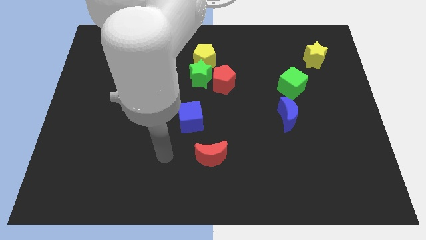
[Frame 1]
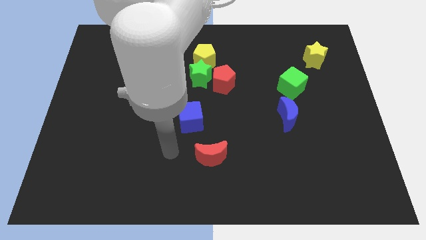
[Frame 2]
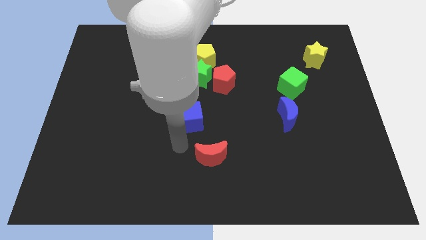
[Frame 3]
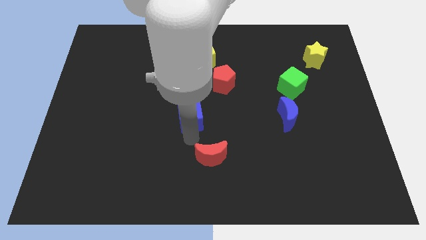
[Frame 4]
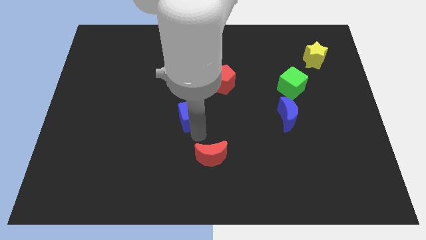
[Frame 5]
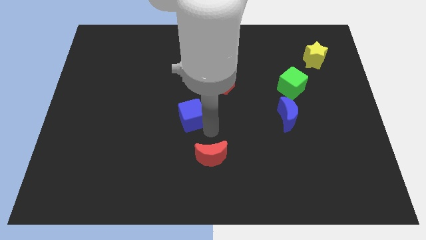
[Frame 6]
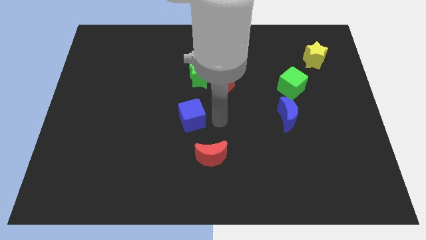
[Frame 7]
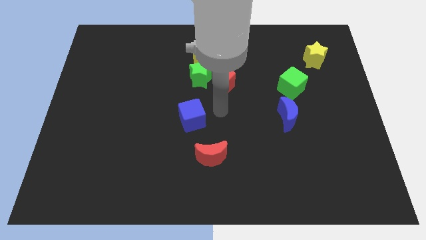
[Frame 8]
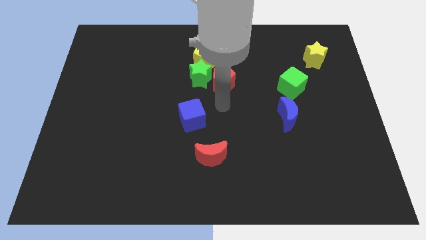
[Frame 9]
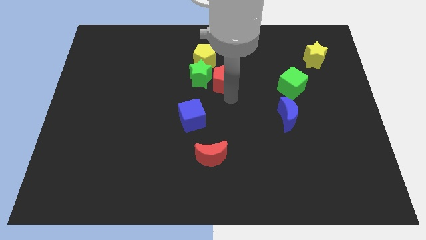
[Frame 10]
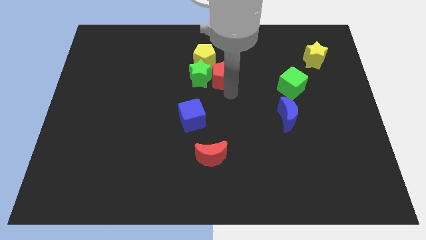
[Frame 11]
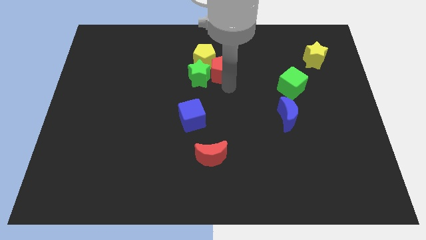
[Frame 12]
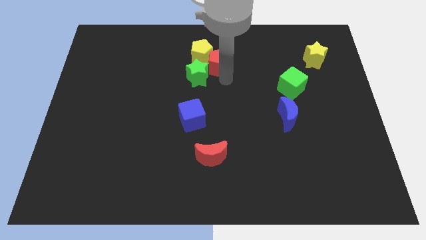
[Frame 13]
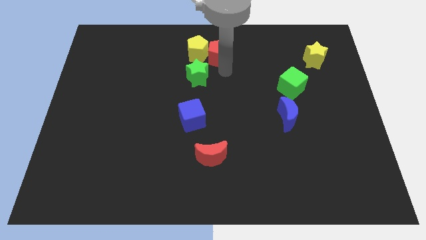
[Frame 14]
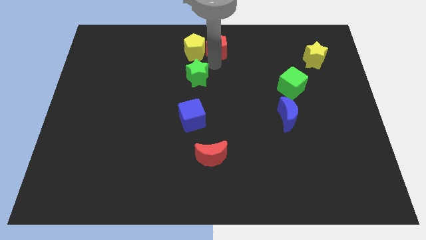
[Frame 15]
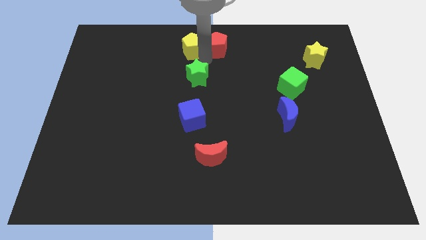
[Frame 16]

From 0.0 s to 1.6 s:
move the green star away from the red pentagon and yellow pentagon

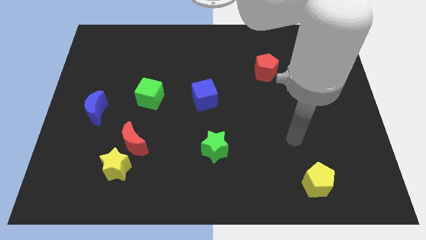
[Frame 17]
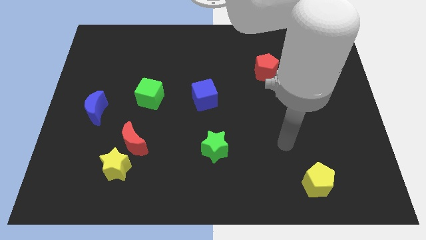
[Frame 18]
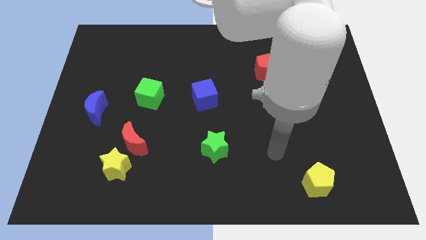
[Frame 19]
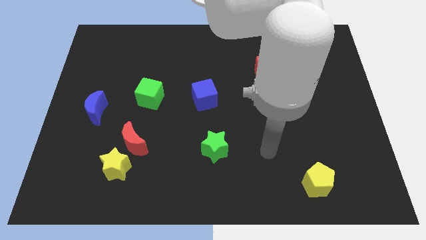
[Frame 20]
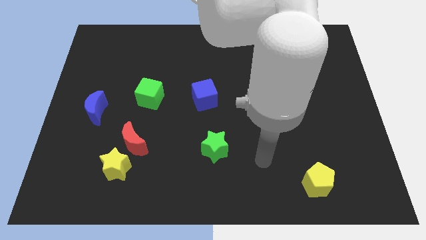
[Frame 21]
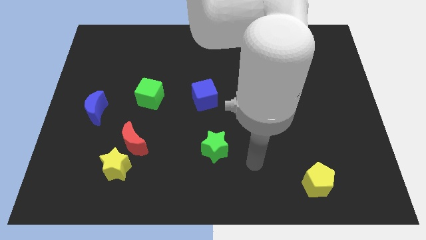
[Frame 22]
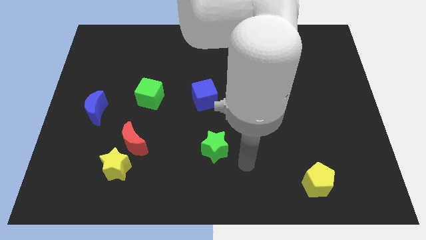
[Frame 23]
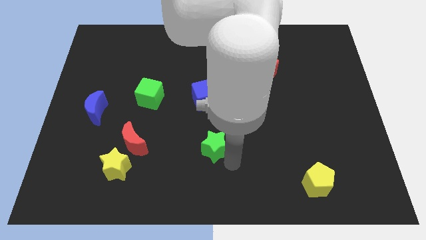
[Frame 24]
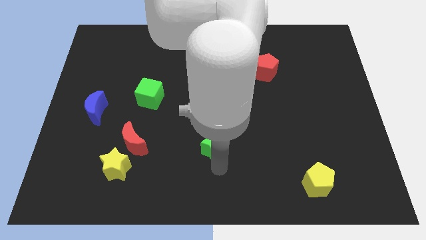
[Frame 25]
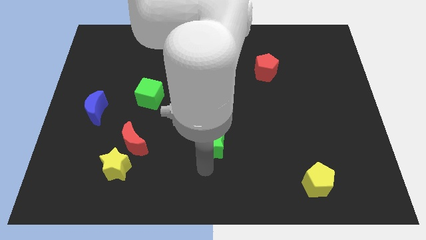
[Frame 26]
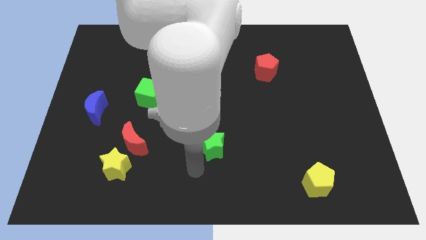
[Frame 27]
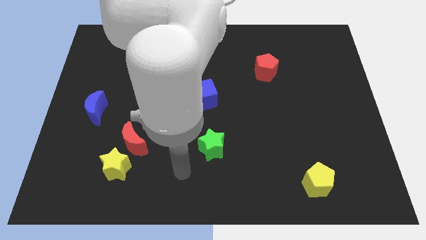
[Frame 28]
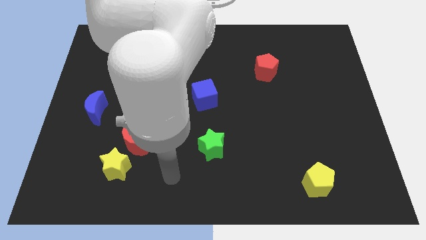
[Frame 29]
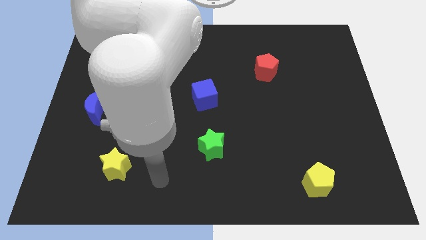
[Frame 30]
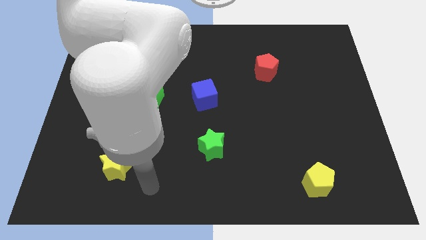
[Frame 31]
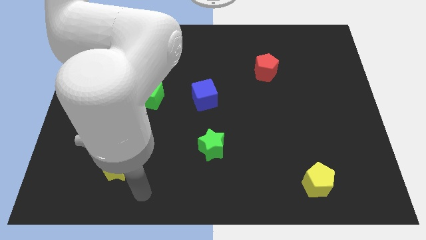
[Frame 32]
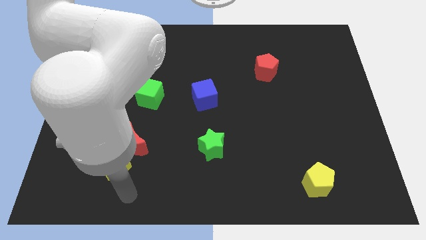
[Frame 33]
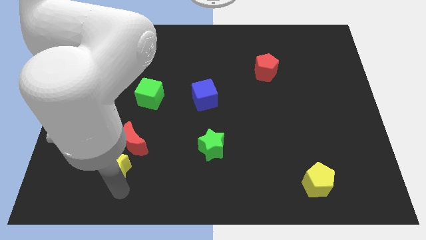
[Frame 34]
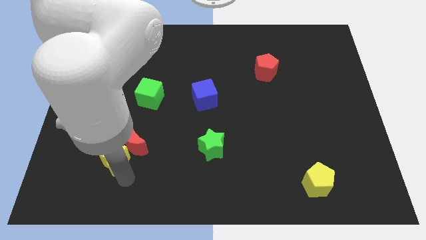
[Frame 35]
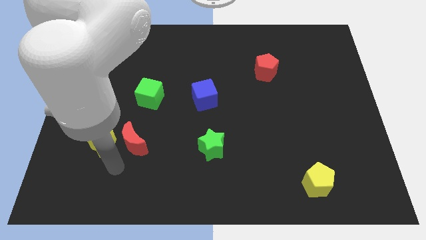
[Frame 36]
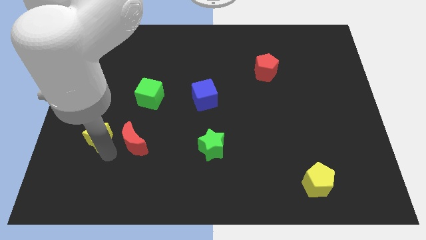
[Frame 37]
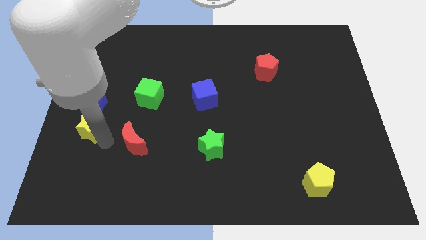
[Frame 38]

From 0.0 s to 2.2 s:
move the red moon away from the yellow star

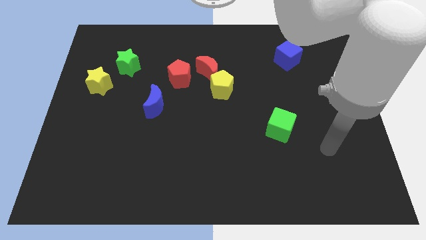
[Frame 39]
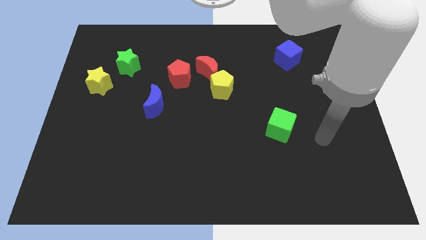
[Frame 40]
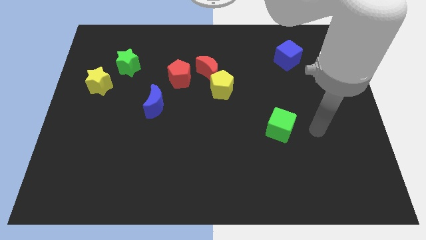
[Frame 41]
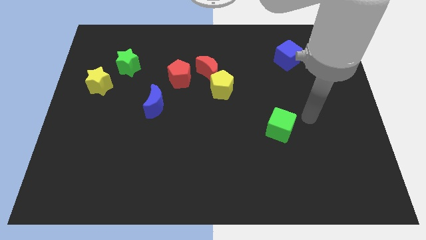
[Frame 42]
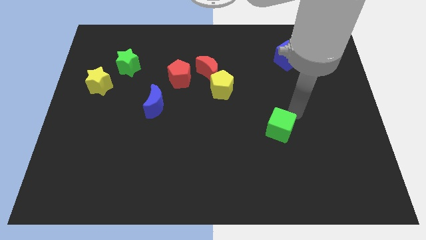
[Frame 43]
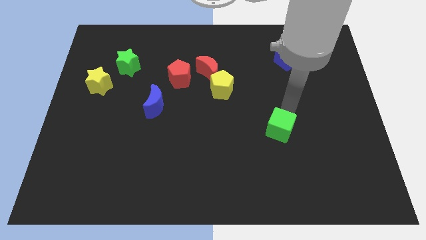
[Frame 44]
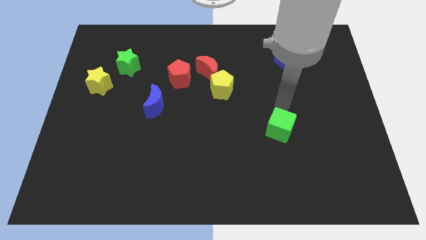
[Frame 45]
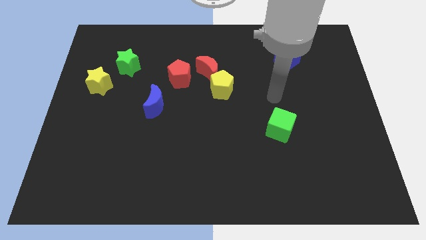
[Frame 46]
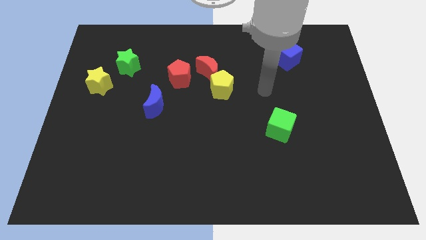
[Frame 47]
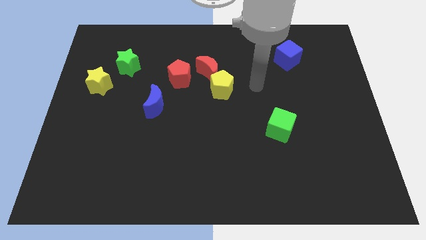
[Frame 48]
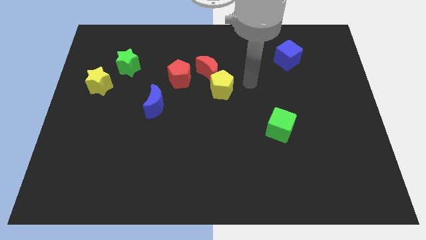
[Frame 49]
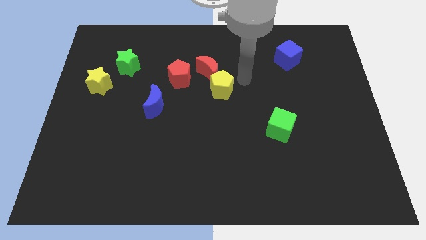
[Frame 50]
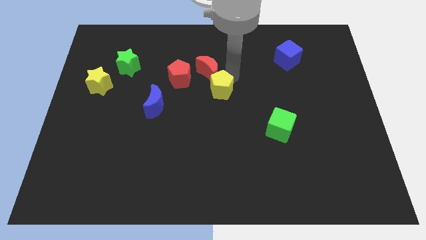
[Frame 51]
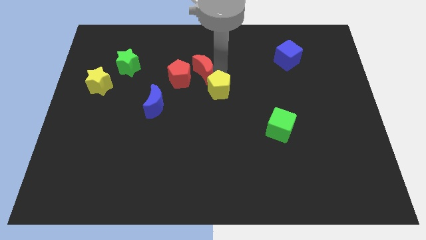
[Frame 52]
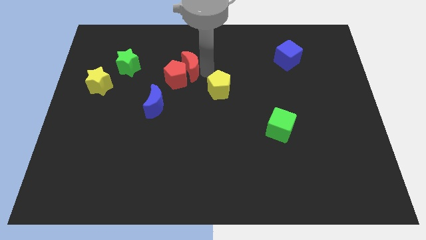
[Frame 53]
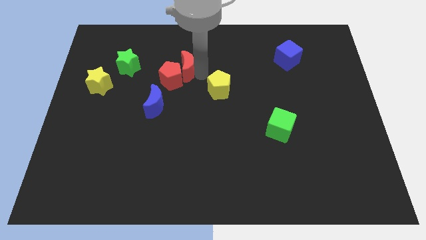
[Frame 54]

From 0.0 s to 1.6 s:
move the yellow pentagon away from the red moon

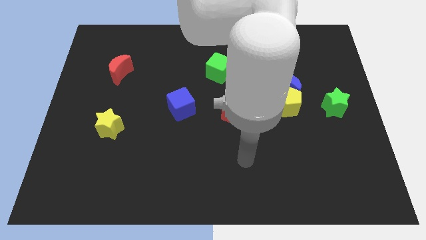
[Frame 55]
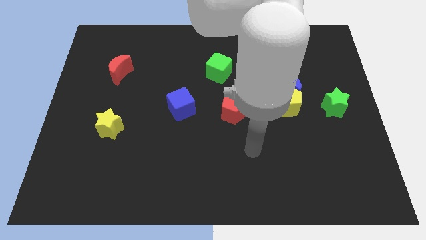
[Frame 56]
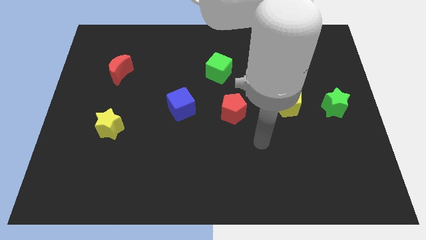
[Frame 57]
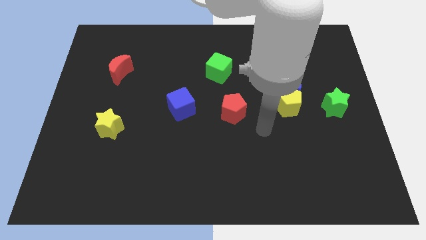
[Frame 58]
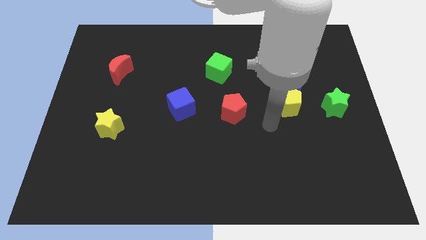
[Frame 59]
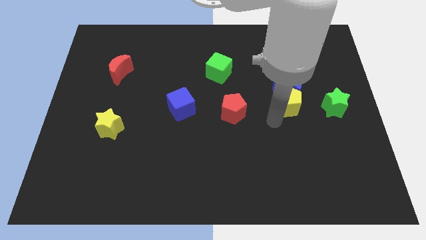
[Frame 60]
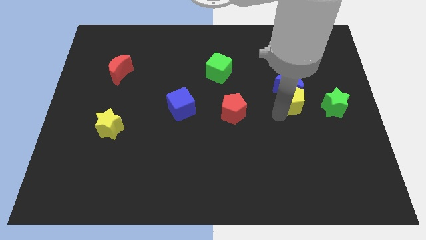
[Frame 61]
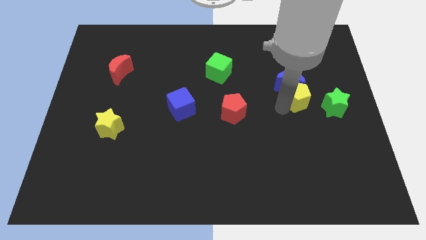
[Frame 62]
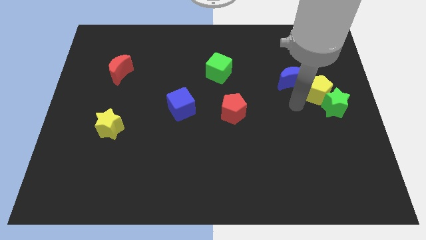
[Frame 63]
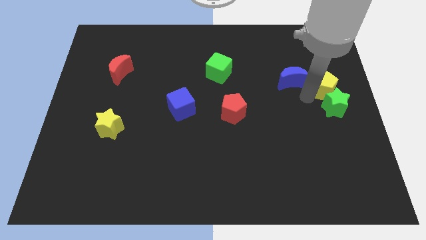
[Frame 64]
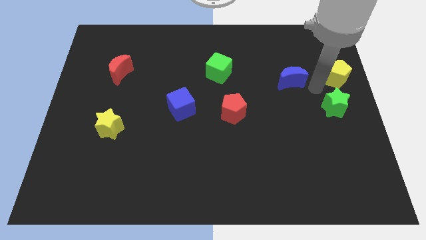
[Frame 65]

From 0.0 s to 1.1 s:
separate the blue moon from the yellow pentagon

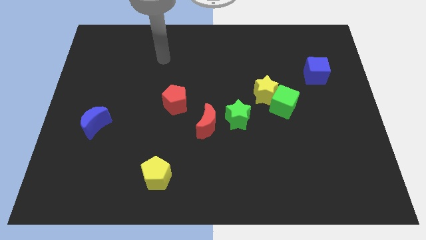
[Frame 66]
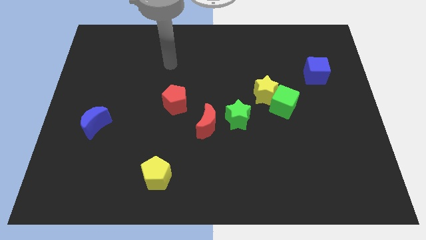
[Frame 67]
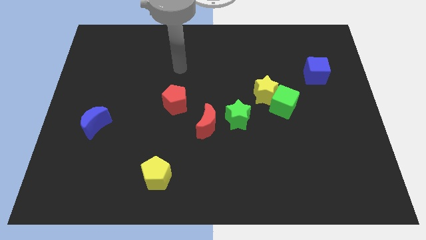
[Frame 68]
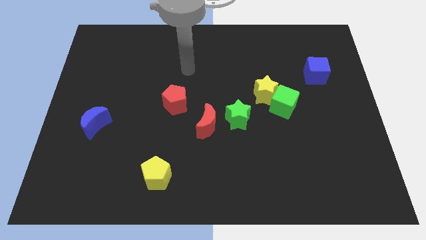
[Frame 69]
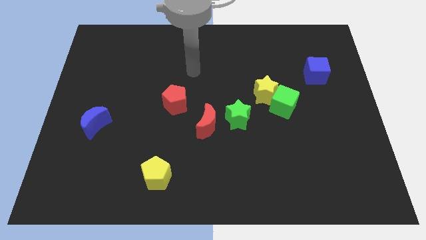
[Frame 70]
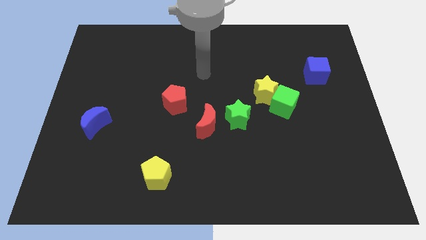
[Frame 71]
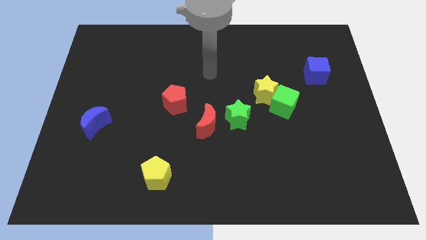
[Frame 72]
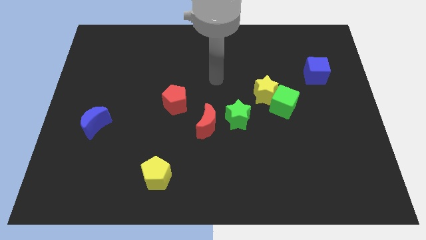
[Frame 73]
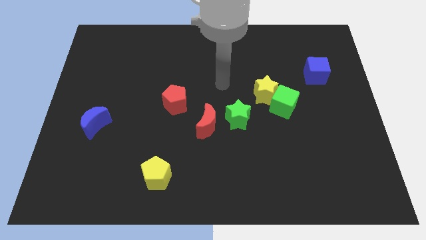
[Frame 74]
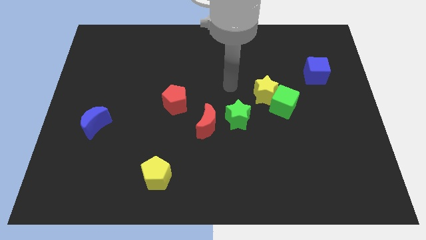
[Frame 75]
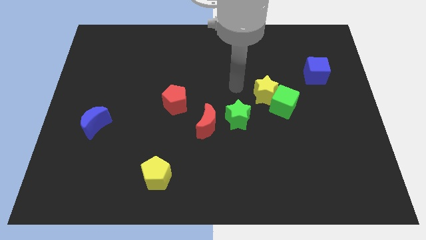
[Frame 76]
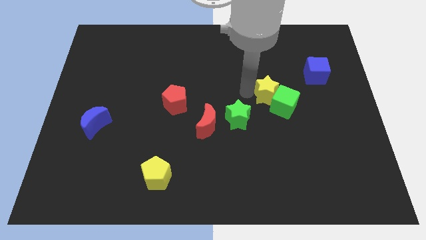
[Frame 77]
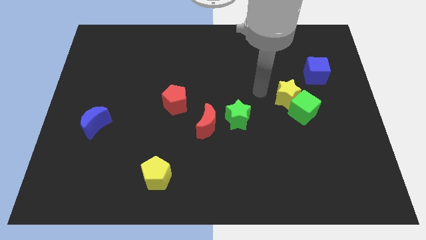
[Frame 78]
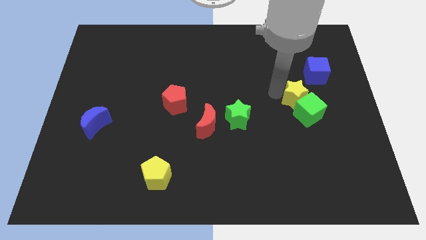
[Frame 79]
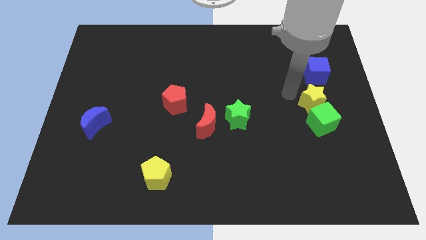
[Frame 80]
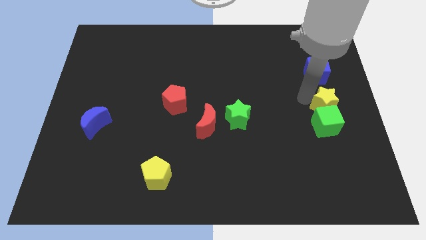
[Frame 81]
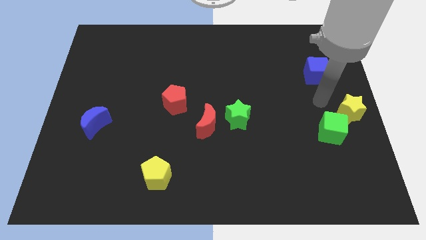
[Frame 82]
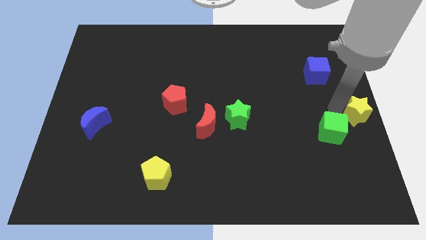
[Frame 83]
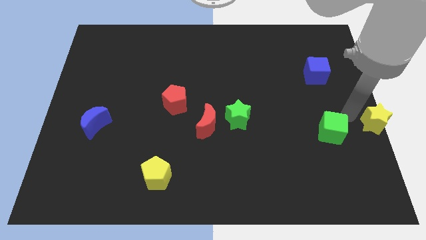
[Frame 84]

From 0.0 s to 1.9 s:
separate the green cube from the yellow star

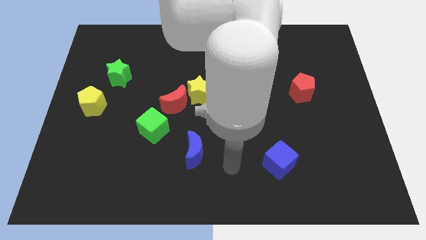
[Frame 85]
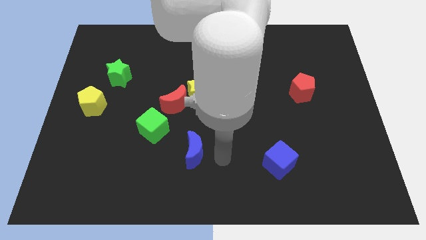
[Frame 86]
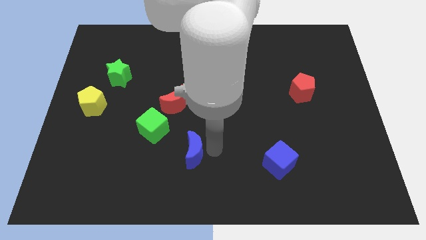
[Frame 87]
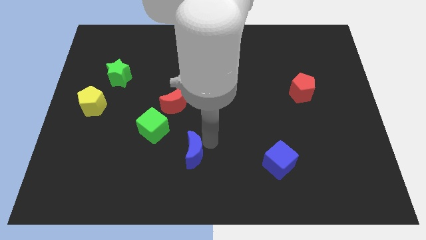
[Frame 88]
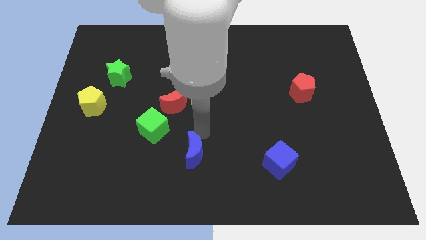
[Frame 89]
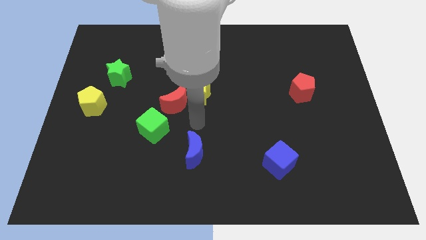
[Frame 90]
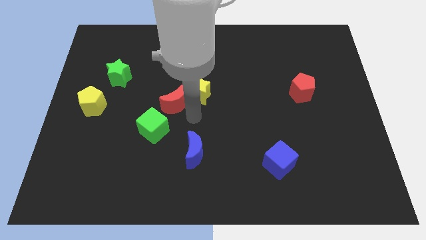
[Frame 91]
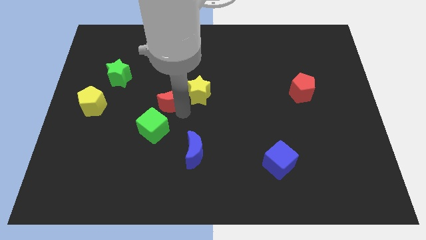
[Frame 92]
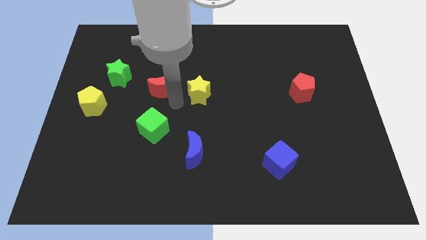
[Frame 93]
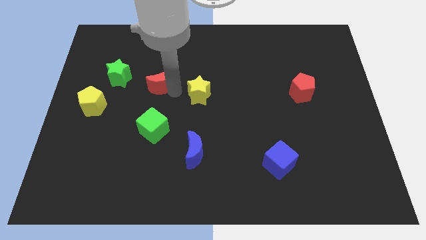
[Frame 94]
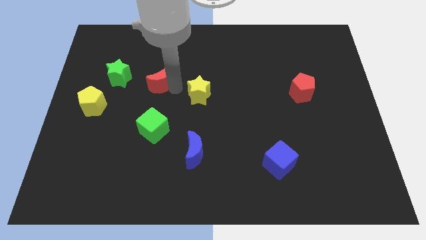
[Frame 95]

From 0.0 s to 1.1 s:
pull the yellow star apart from the red moon
